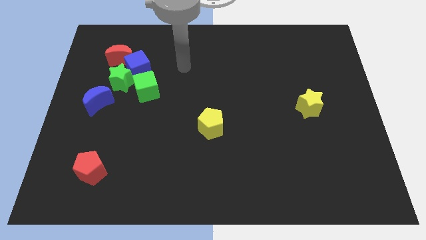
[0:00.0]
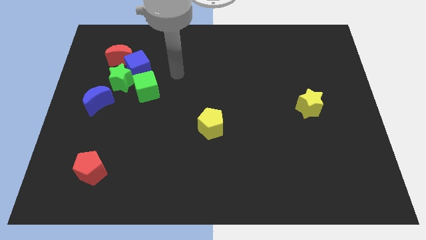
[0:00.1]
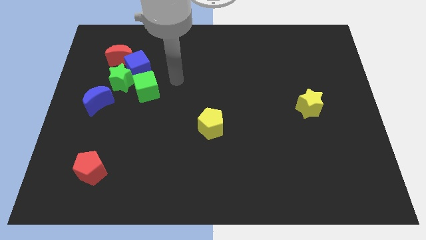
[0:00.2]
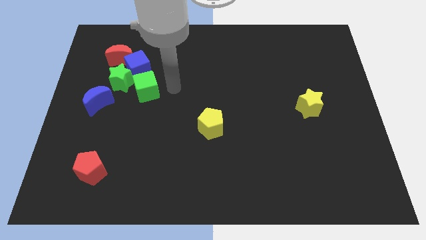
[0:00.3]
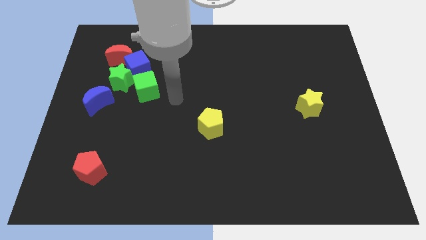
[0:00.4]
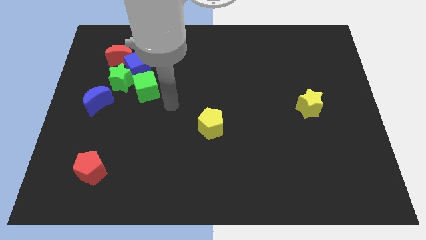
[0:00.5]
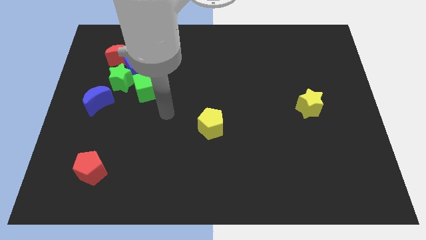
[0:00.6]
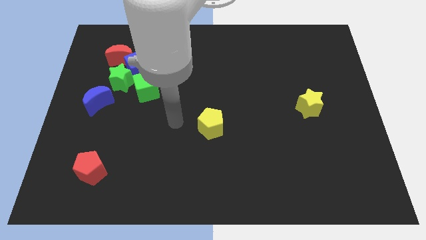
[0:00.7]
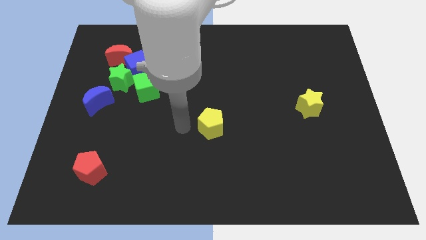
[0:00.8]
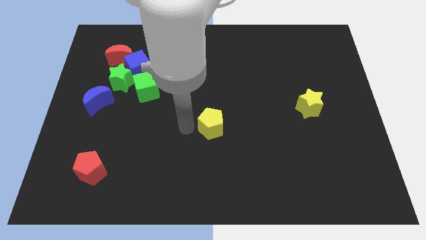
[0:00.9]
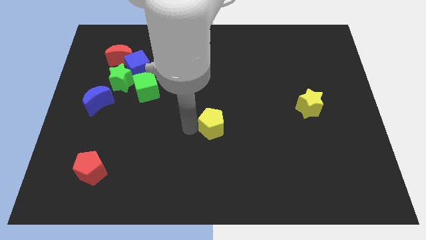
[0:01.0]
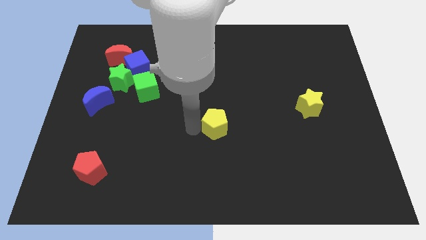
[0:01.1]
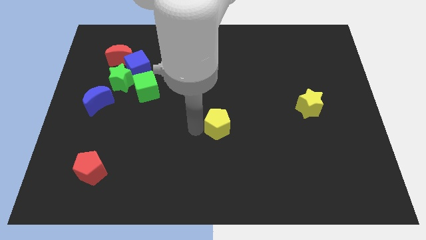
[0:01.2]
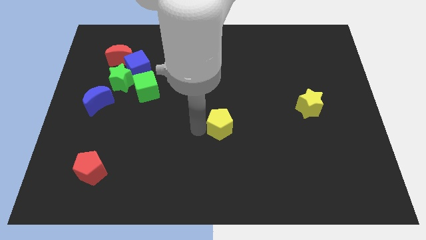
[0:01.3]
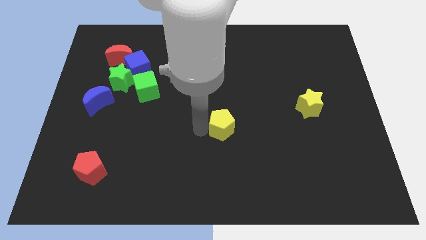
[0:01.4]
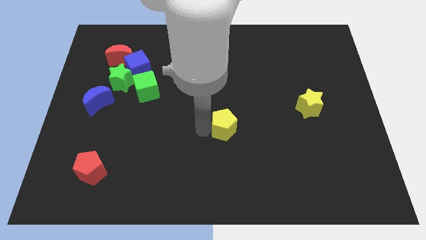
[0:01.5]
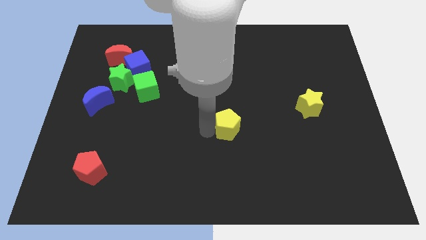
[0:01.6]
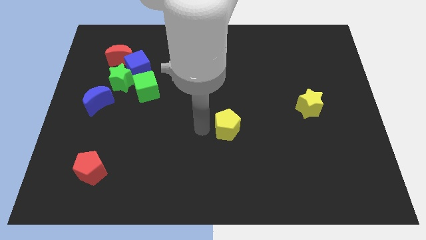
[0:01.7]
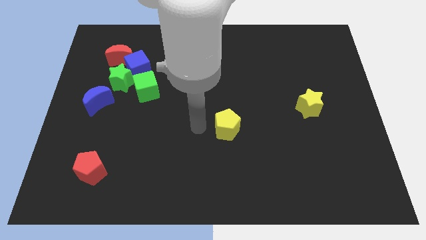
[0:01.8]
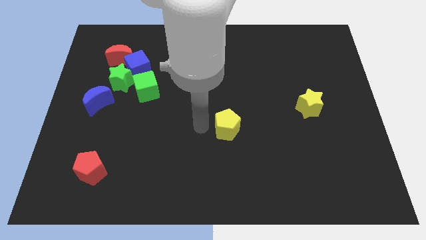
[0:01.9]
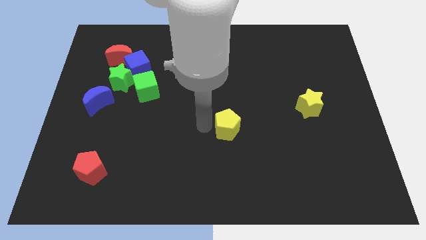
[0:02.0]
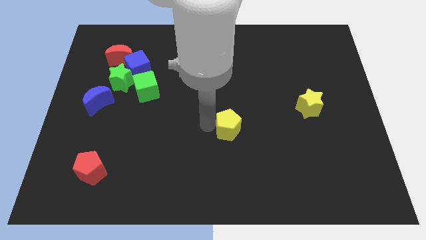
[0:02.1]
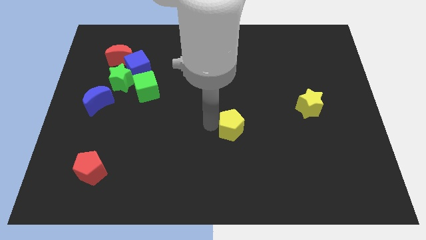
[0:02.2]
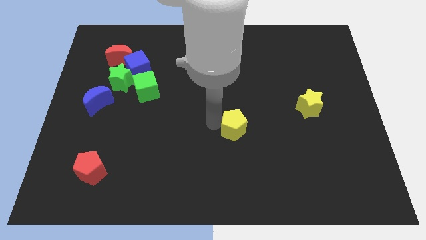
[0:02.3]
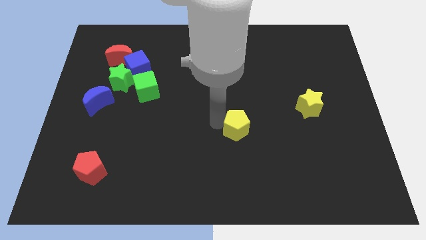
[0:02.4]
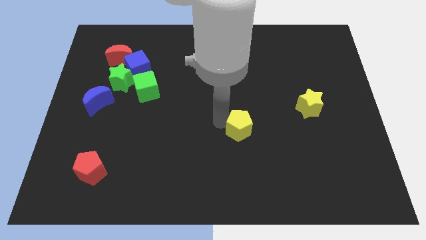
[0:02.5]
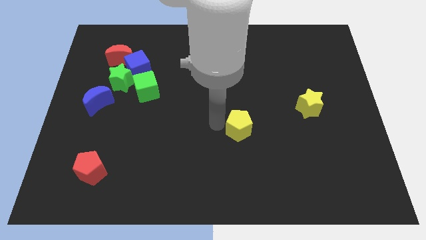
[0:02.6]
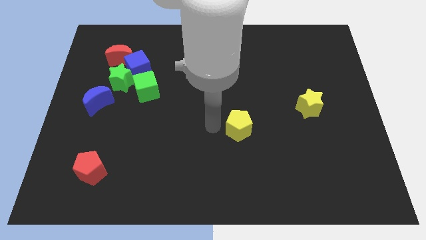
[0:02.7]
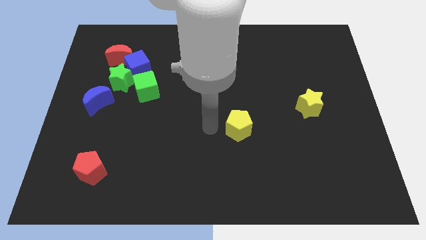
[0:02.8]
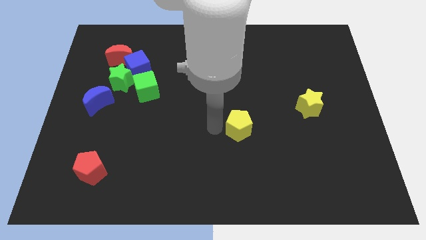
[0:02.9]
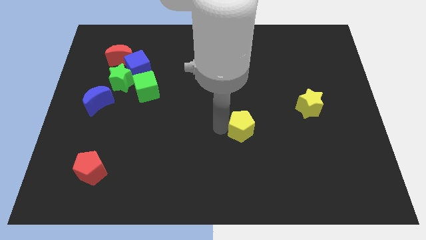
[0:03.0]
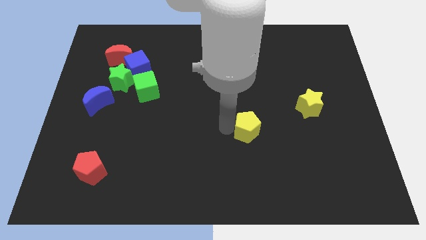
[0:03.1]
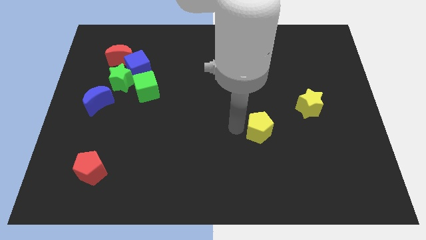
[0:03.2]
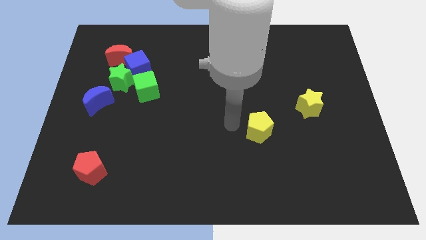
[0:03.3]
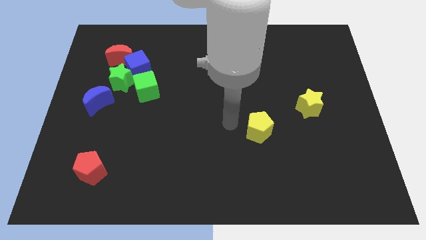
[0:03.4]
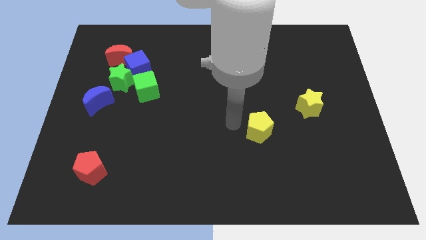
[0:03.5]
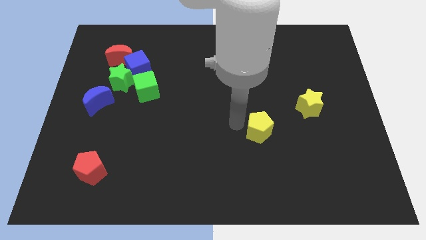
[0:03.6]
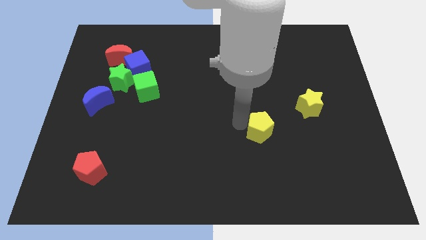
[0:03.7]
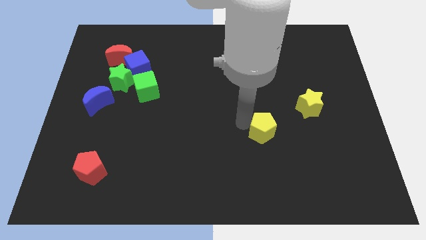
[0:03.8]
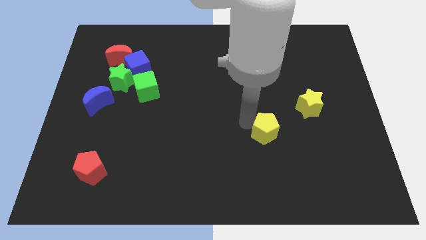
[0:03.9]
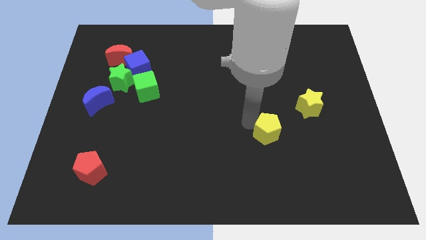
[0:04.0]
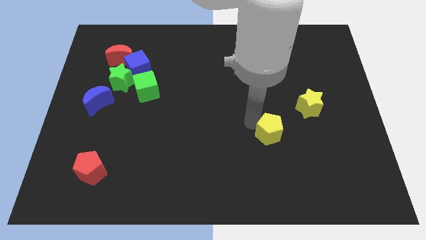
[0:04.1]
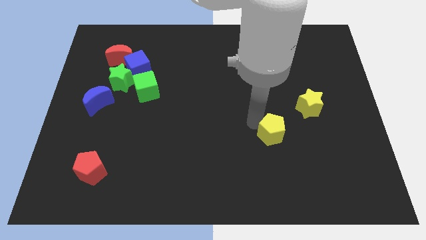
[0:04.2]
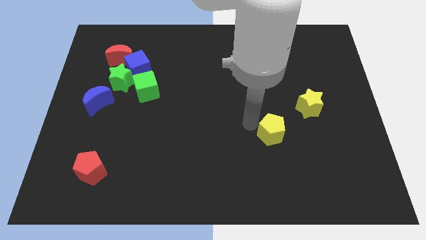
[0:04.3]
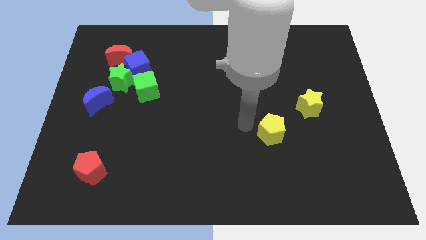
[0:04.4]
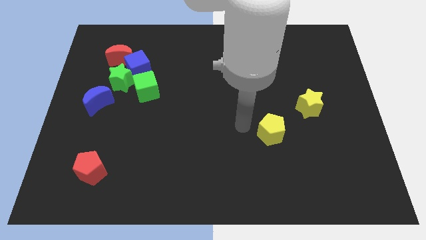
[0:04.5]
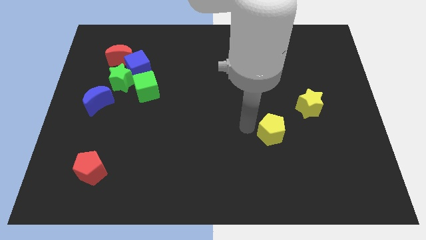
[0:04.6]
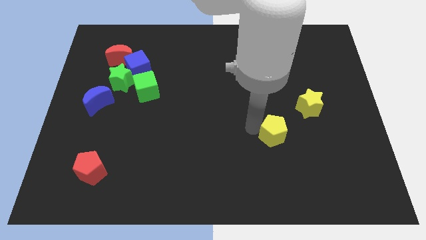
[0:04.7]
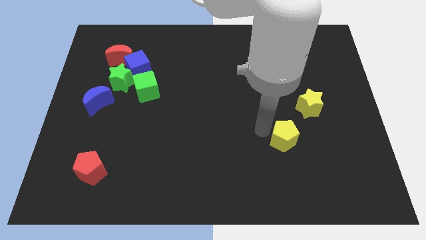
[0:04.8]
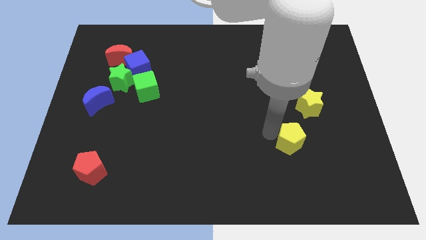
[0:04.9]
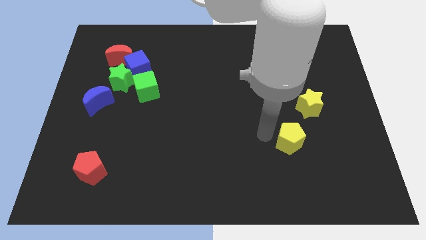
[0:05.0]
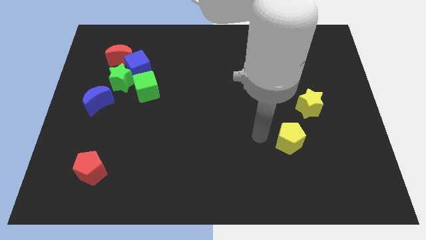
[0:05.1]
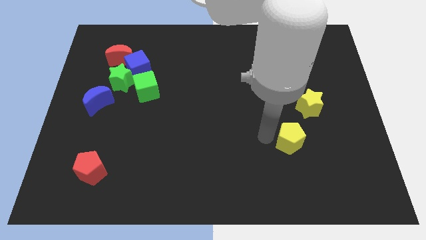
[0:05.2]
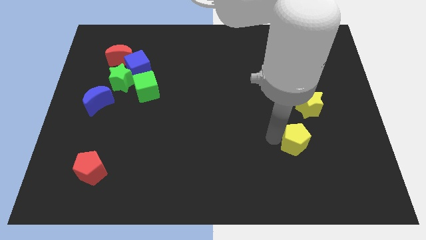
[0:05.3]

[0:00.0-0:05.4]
slide the yellow pentagon to the bottom side of the yellow star

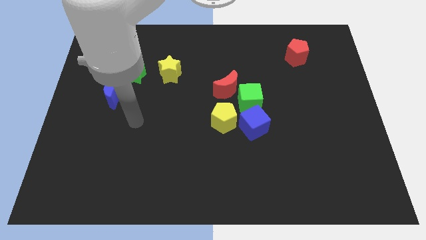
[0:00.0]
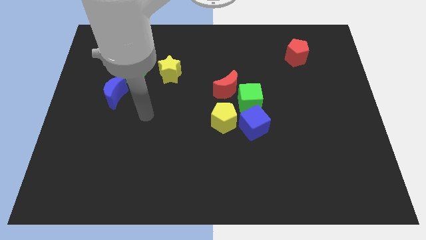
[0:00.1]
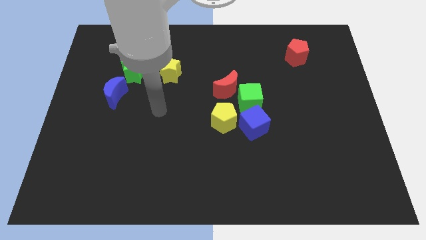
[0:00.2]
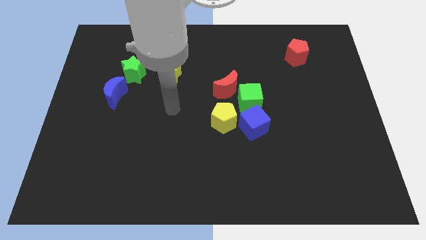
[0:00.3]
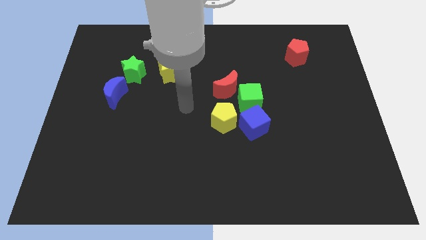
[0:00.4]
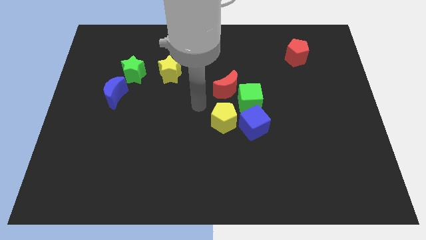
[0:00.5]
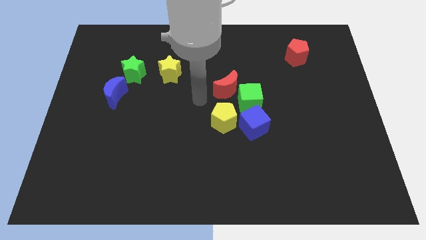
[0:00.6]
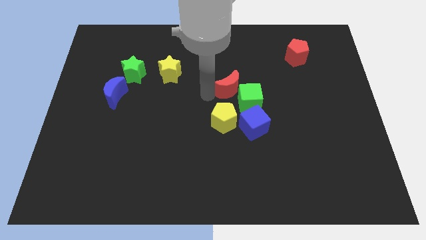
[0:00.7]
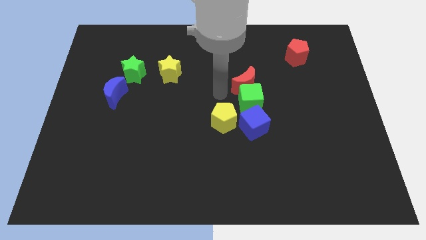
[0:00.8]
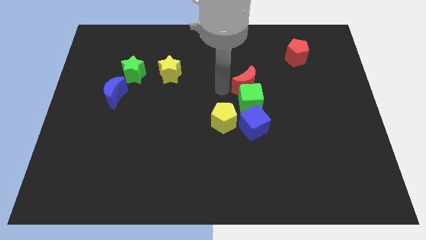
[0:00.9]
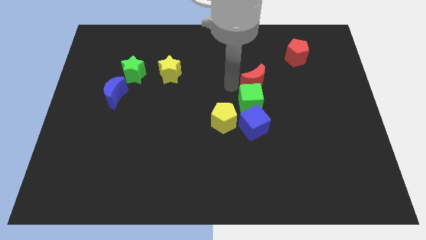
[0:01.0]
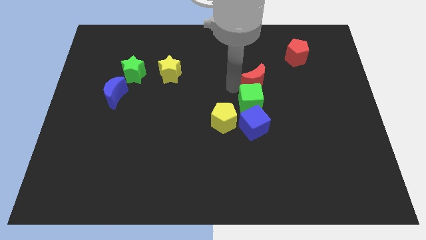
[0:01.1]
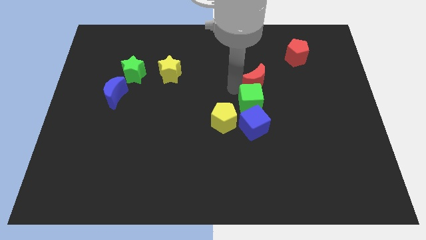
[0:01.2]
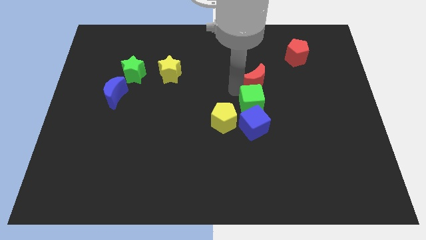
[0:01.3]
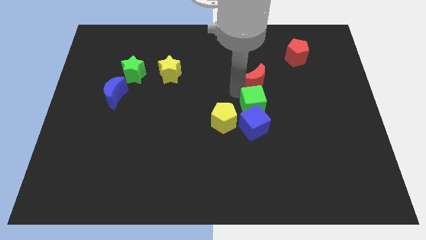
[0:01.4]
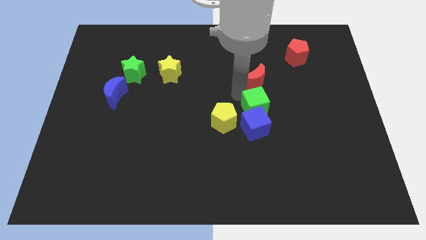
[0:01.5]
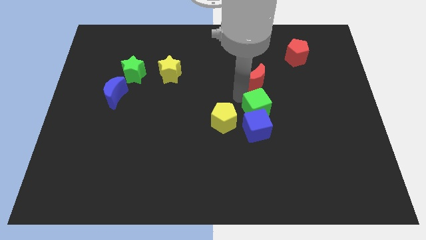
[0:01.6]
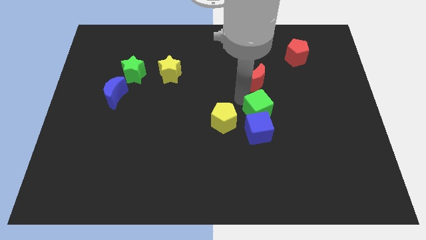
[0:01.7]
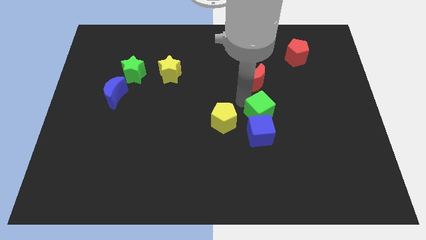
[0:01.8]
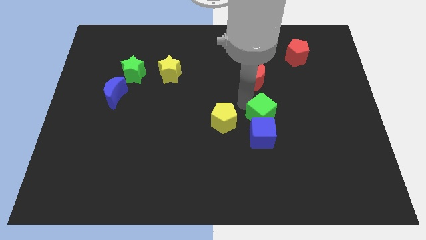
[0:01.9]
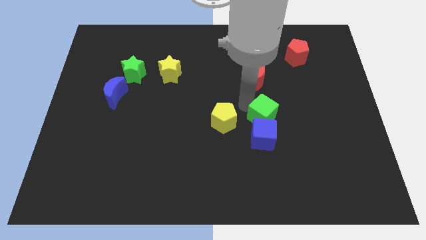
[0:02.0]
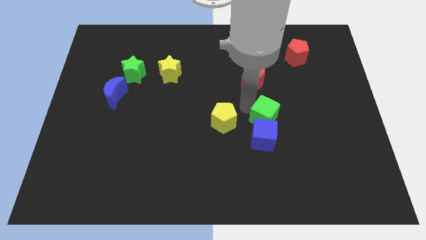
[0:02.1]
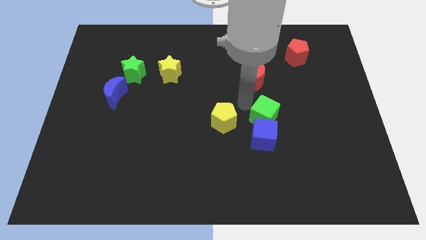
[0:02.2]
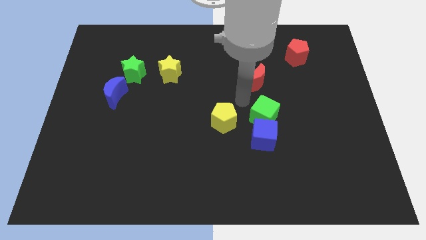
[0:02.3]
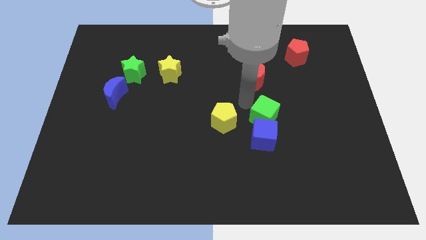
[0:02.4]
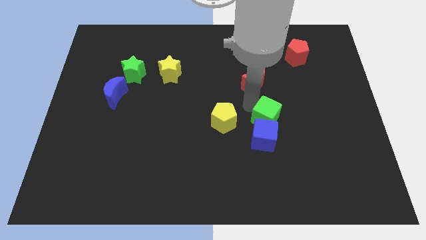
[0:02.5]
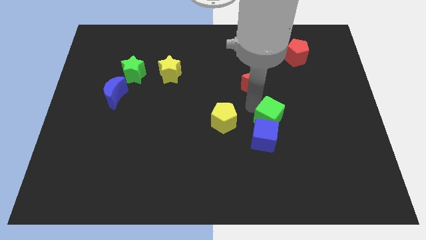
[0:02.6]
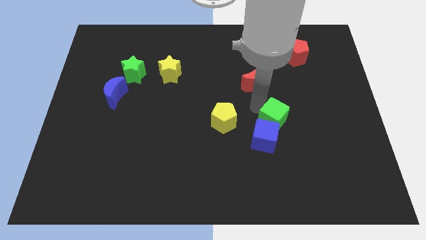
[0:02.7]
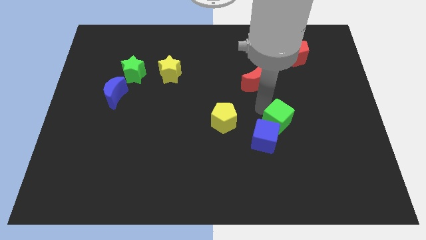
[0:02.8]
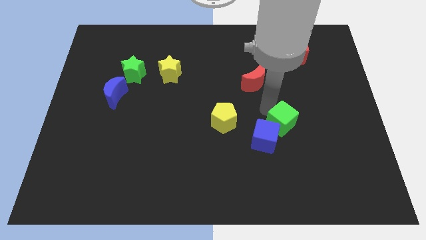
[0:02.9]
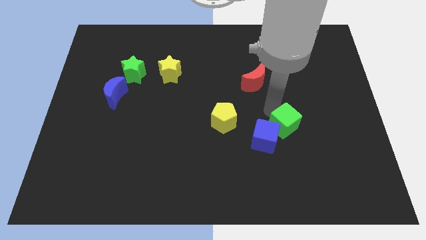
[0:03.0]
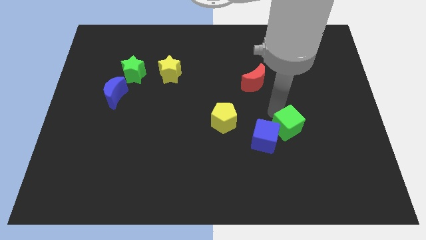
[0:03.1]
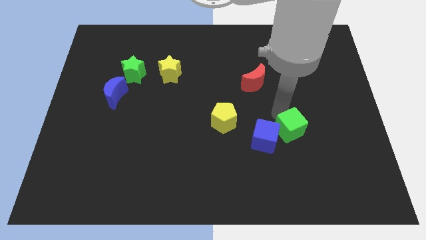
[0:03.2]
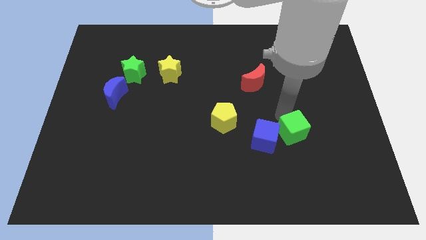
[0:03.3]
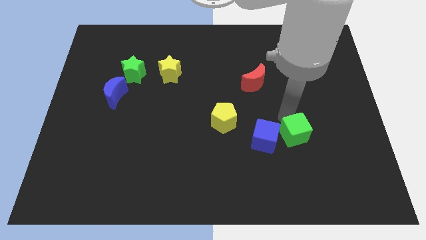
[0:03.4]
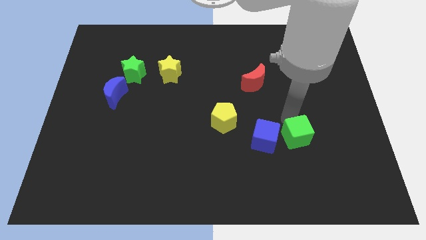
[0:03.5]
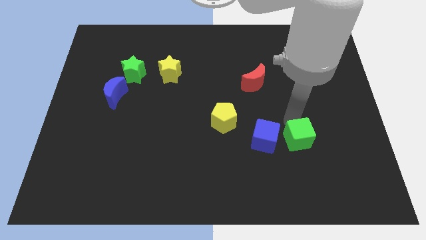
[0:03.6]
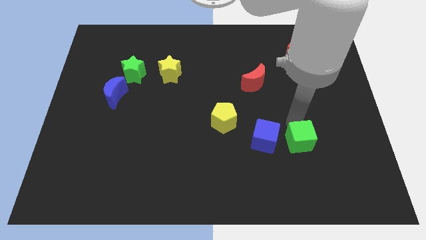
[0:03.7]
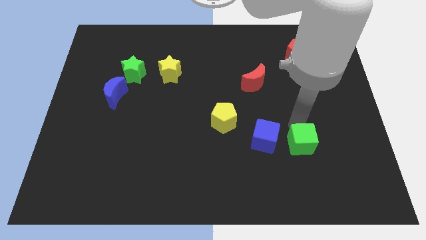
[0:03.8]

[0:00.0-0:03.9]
put the green cube to the bottom right of the blue cube
